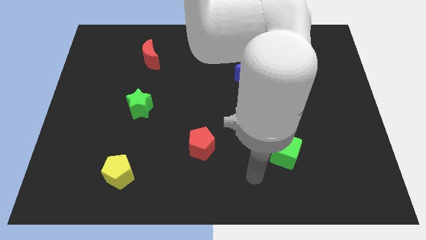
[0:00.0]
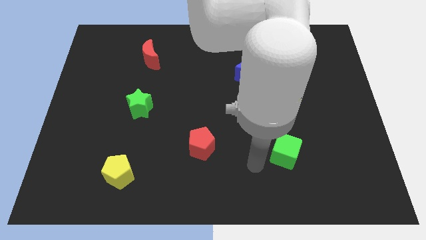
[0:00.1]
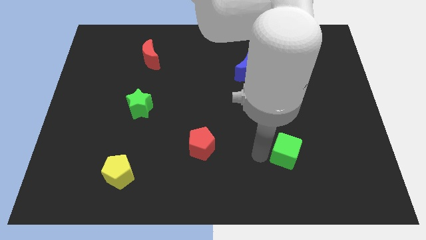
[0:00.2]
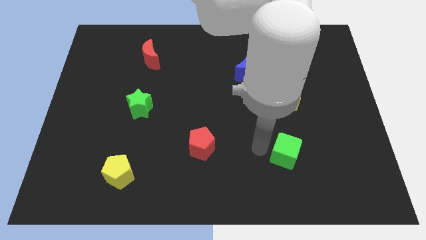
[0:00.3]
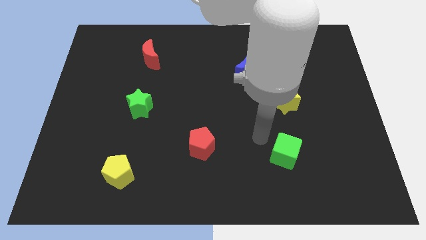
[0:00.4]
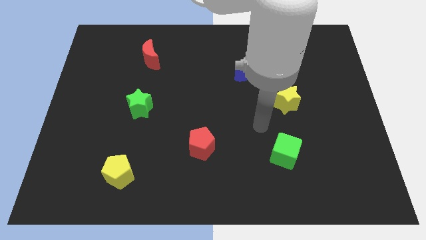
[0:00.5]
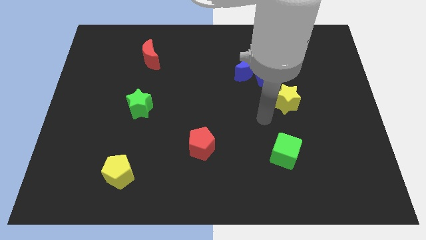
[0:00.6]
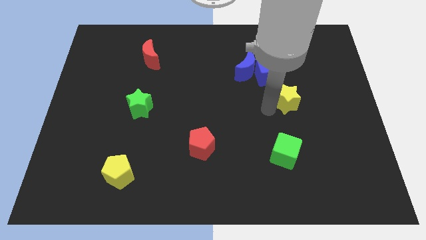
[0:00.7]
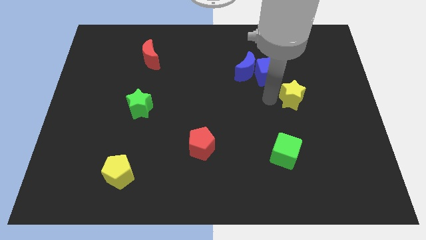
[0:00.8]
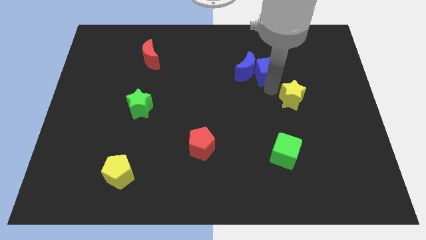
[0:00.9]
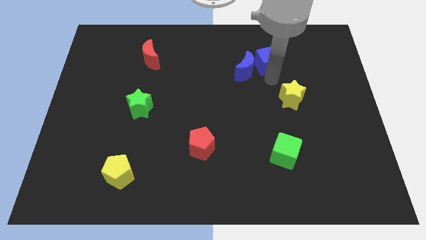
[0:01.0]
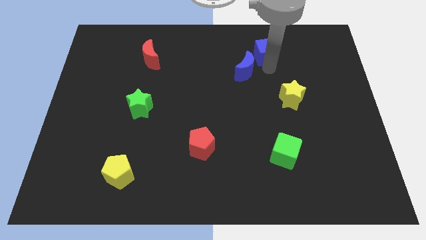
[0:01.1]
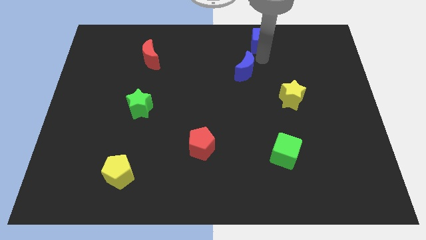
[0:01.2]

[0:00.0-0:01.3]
move the blue moon away from the blue cube

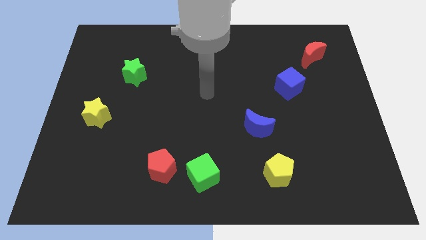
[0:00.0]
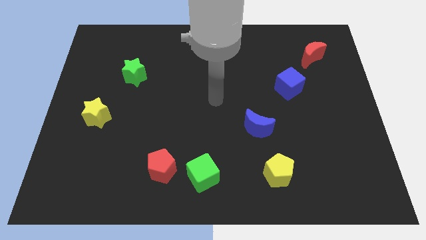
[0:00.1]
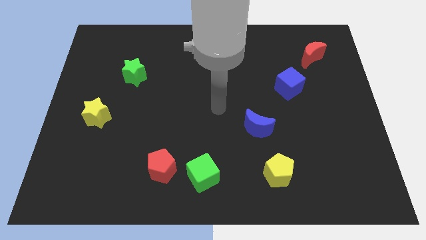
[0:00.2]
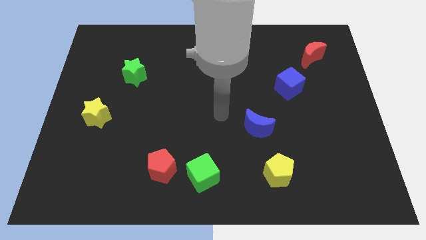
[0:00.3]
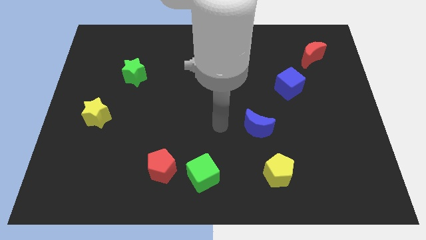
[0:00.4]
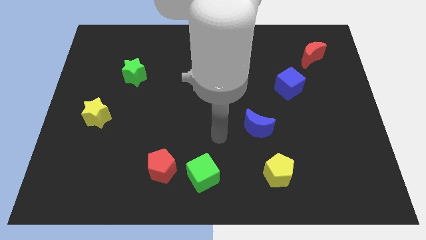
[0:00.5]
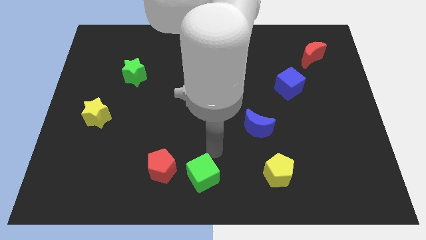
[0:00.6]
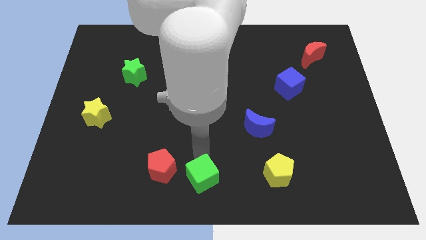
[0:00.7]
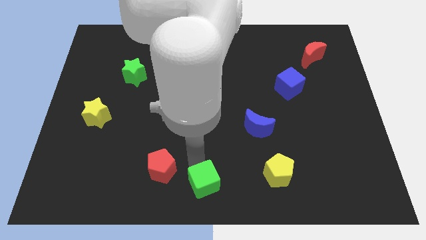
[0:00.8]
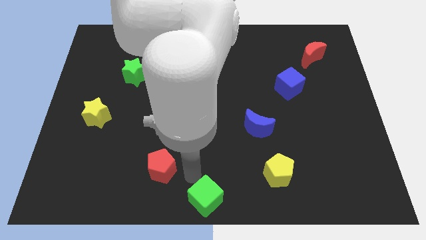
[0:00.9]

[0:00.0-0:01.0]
move the red pentagon away from the green cube

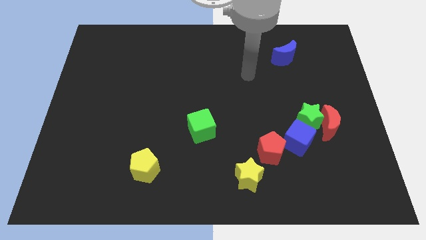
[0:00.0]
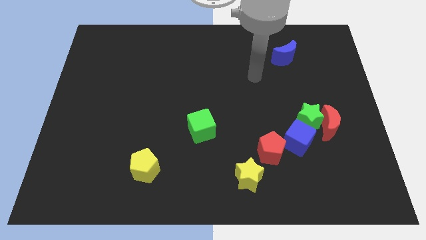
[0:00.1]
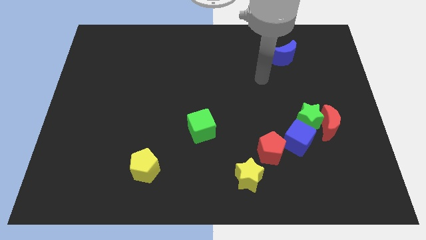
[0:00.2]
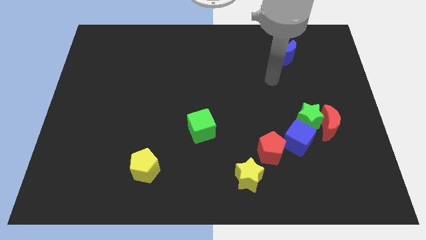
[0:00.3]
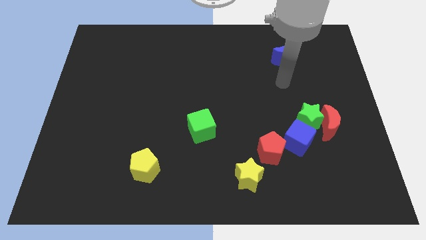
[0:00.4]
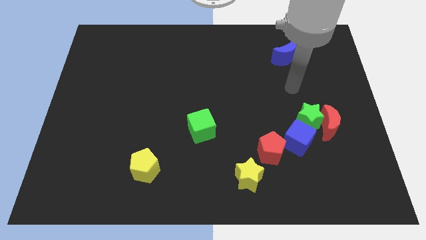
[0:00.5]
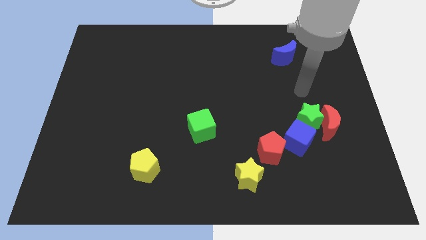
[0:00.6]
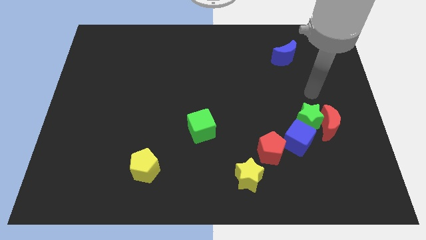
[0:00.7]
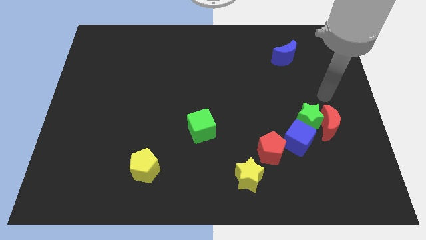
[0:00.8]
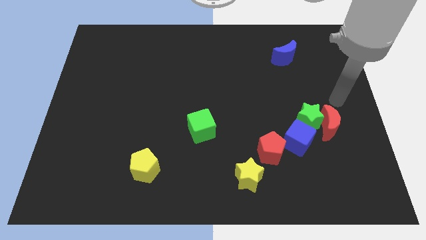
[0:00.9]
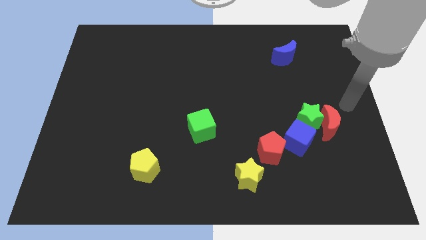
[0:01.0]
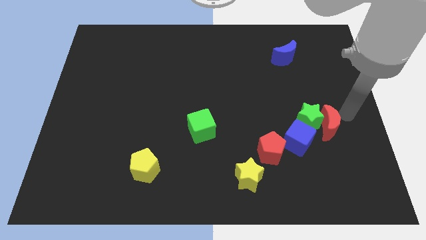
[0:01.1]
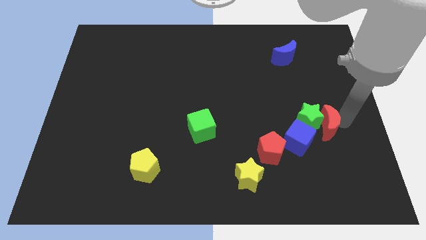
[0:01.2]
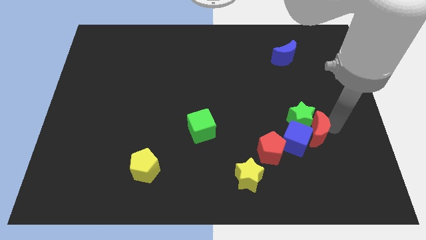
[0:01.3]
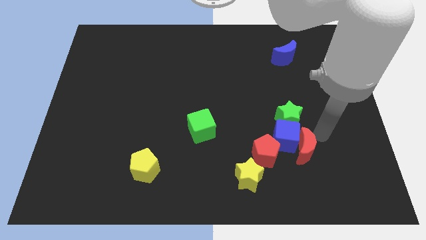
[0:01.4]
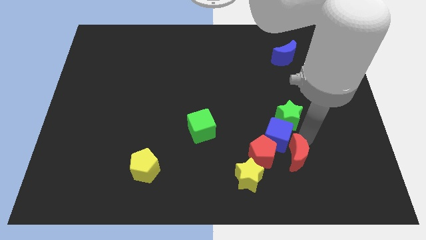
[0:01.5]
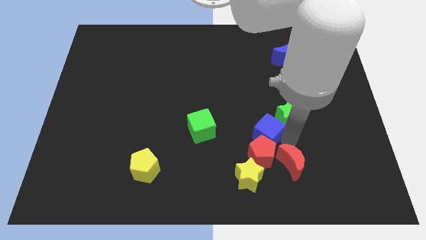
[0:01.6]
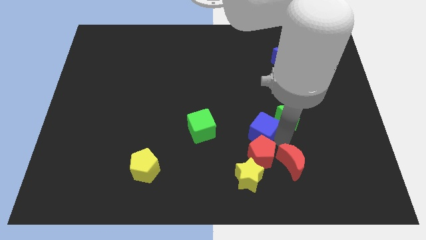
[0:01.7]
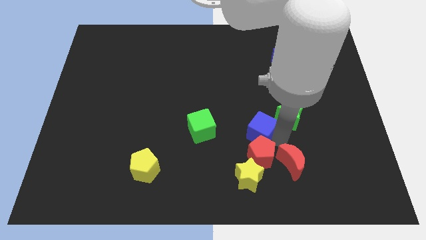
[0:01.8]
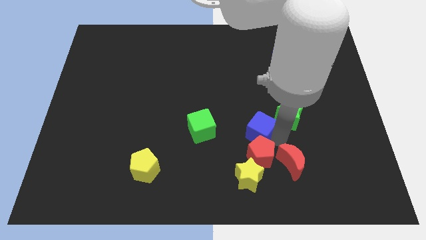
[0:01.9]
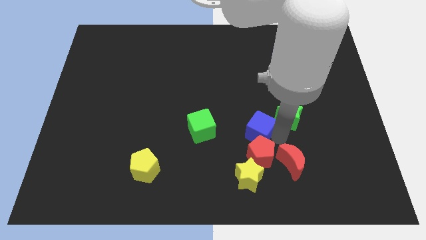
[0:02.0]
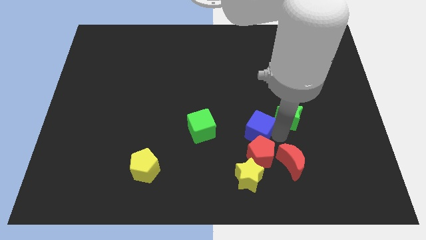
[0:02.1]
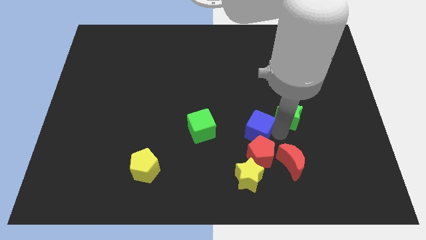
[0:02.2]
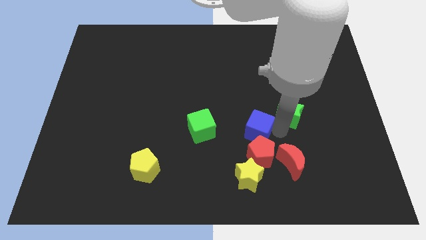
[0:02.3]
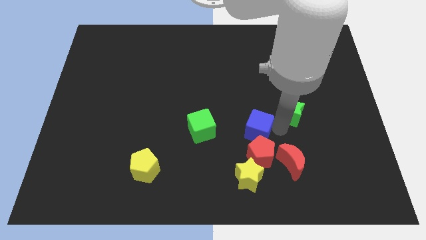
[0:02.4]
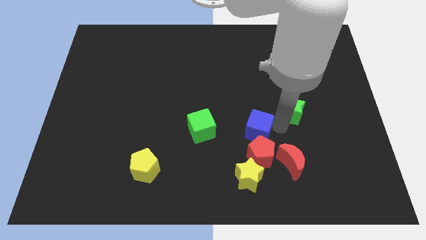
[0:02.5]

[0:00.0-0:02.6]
pull the green star apart from the red moon and blue cube

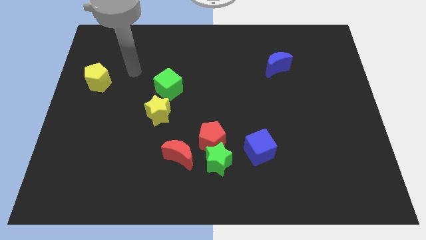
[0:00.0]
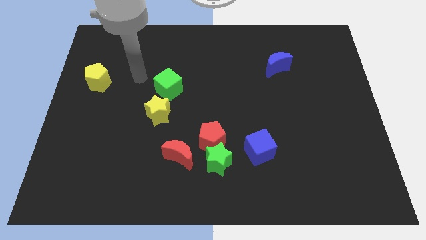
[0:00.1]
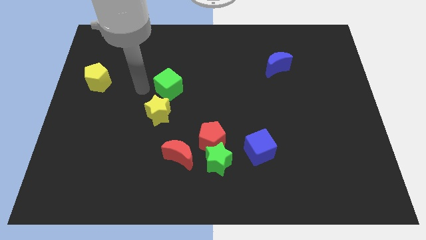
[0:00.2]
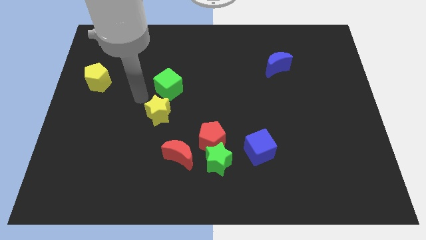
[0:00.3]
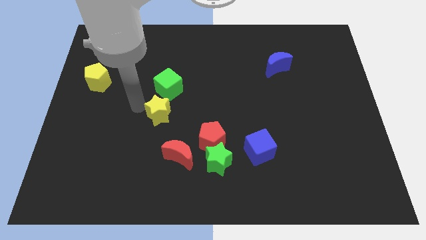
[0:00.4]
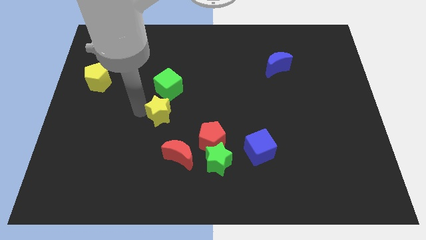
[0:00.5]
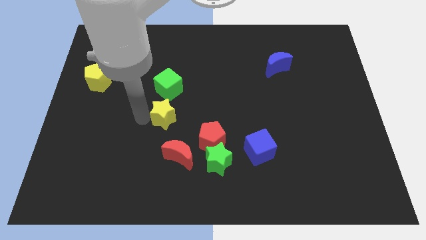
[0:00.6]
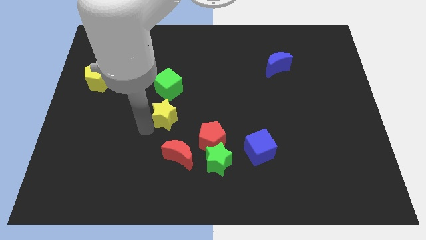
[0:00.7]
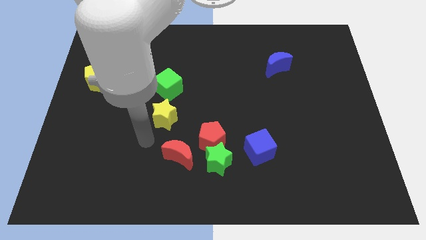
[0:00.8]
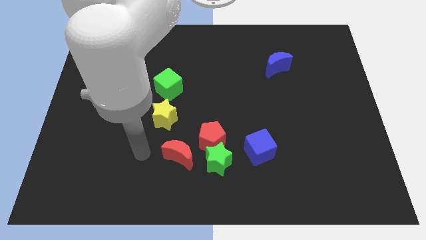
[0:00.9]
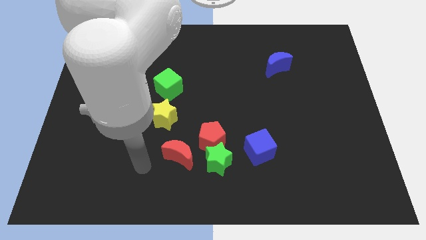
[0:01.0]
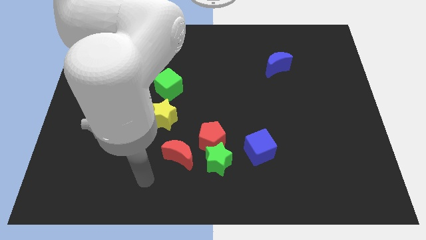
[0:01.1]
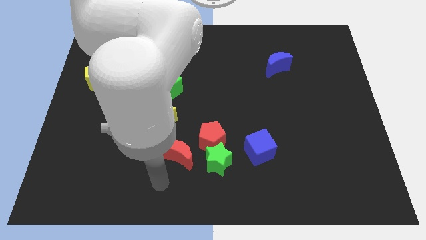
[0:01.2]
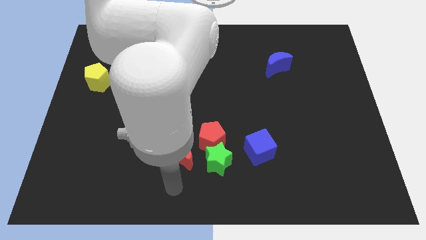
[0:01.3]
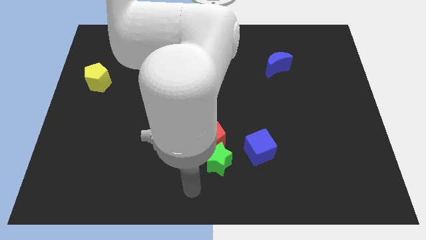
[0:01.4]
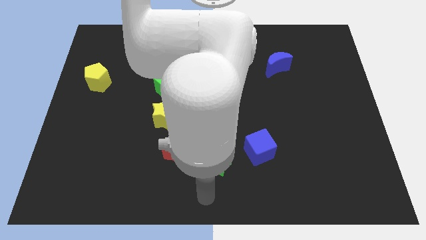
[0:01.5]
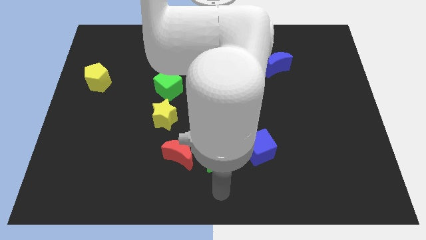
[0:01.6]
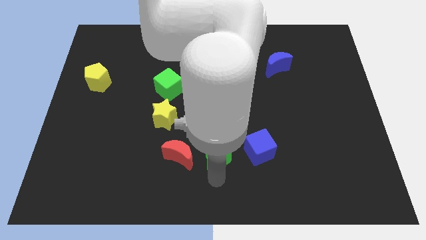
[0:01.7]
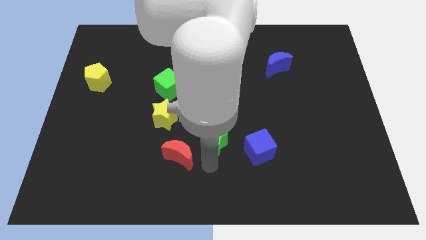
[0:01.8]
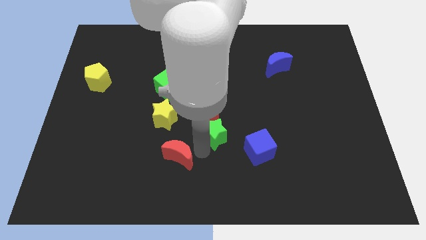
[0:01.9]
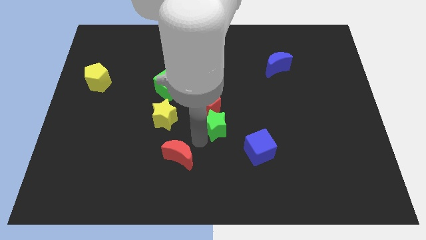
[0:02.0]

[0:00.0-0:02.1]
separate the red pentagon from the green star and red moon

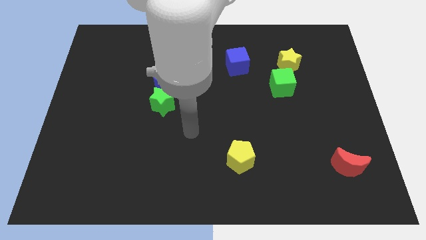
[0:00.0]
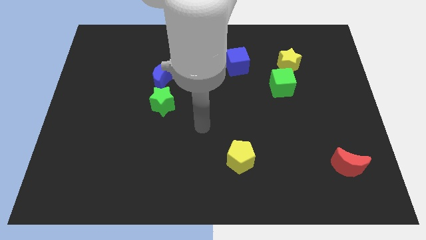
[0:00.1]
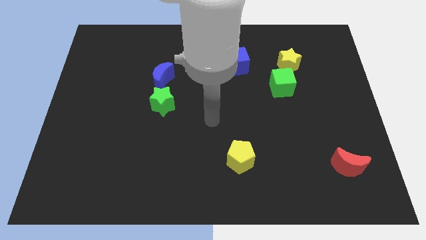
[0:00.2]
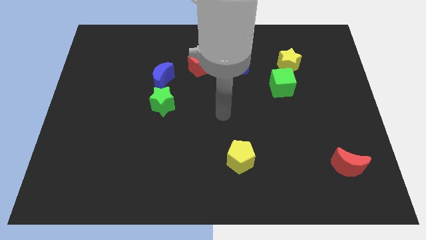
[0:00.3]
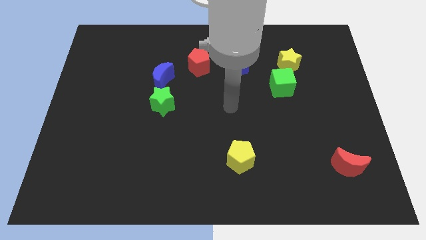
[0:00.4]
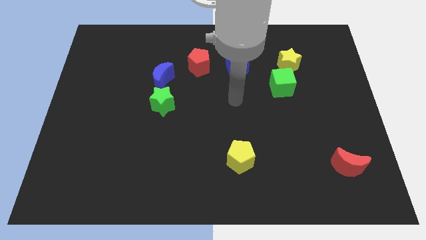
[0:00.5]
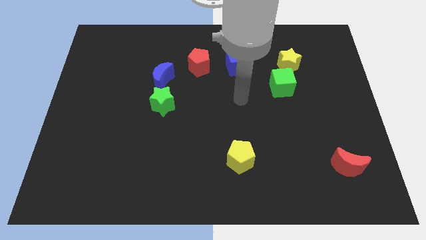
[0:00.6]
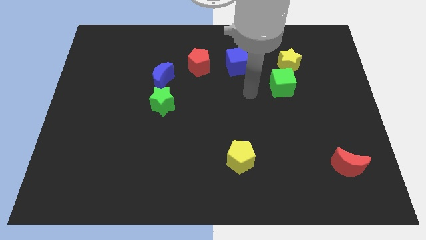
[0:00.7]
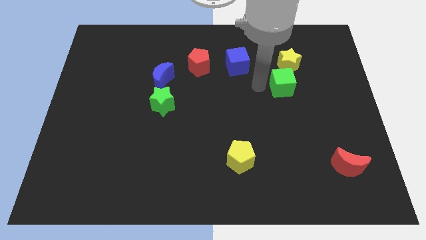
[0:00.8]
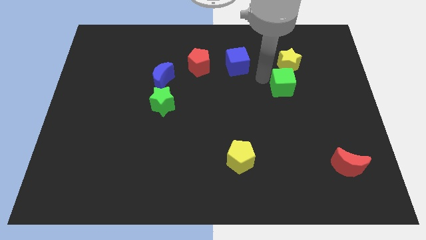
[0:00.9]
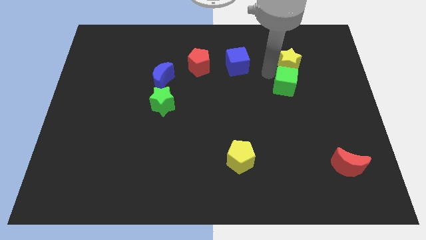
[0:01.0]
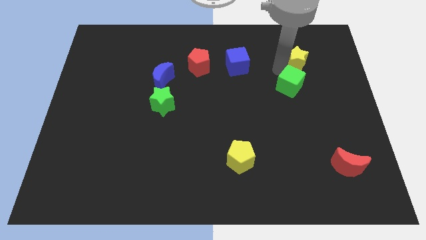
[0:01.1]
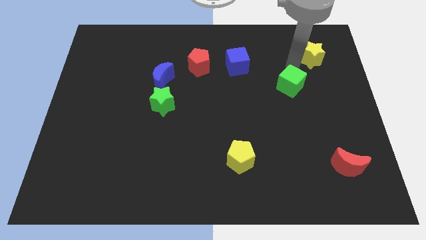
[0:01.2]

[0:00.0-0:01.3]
move the green cube away from the yellow star

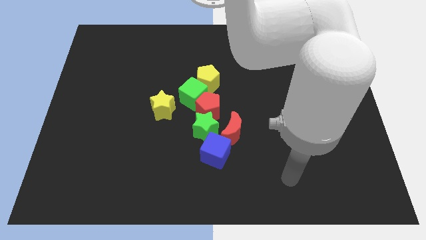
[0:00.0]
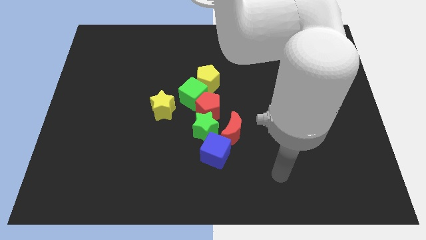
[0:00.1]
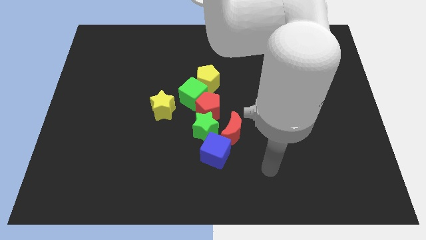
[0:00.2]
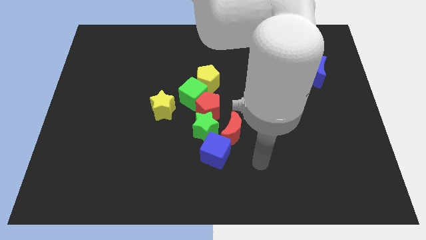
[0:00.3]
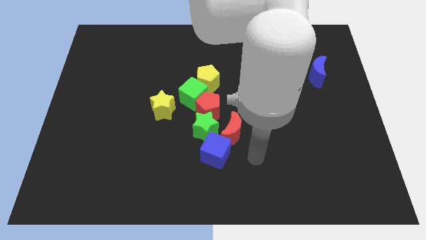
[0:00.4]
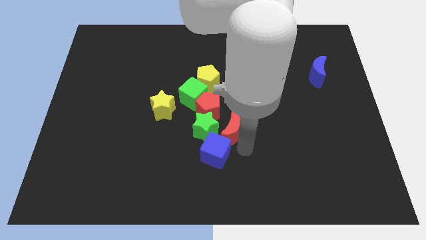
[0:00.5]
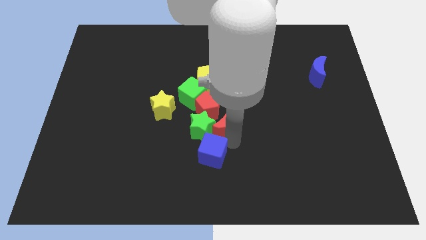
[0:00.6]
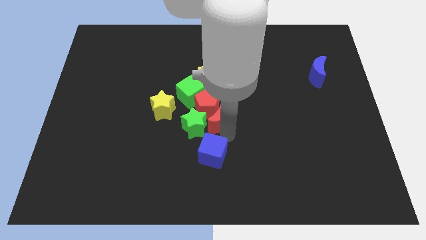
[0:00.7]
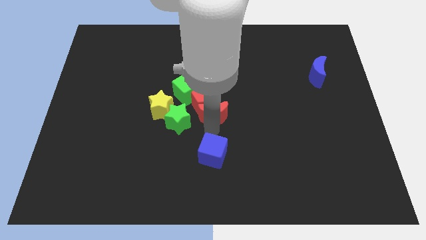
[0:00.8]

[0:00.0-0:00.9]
move the blue cube away from the red moon and green star
